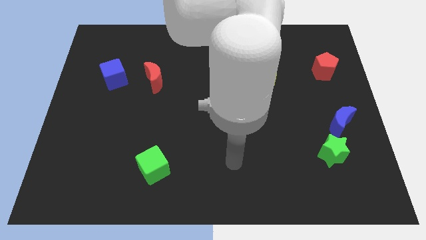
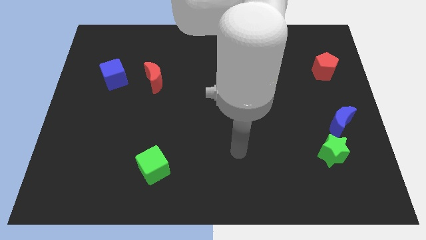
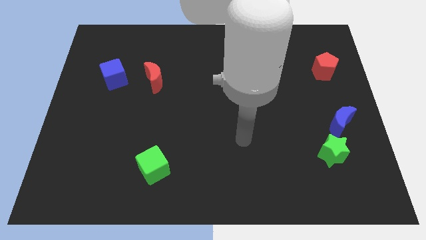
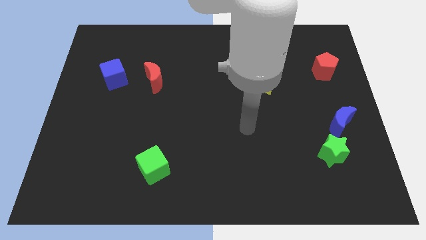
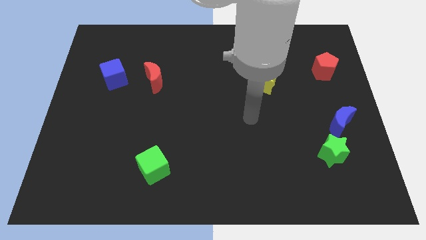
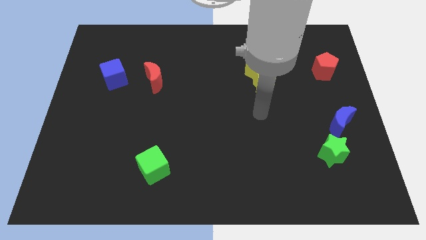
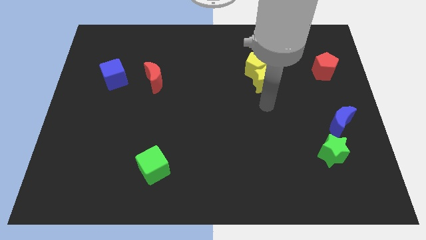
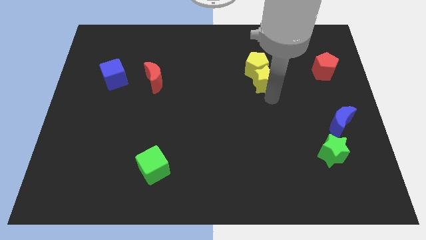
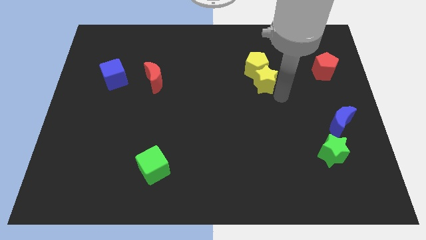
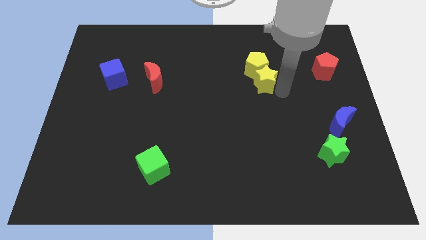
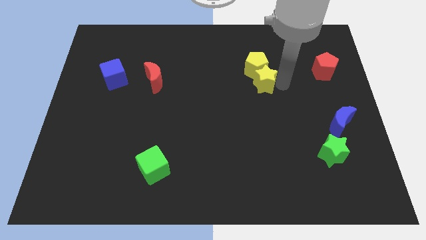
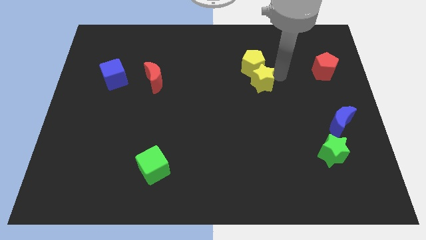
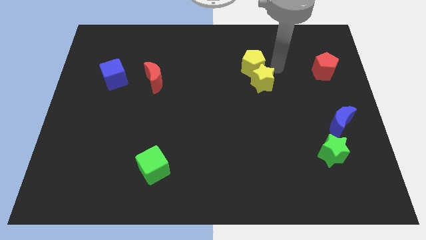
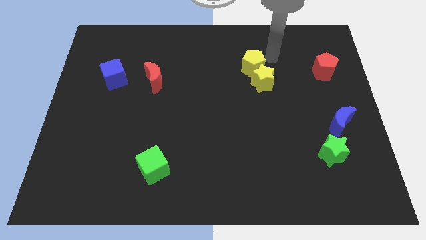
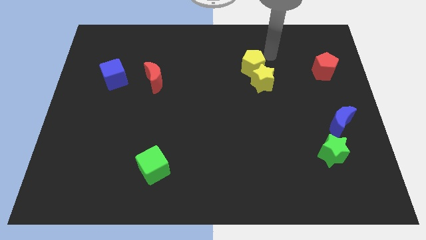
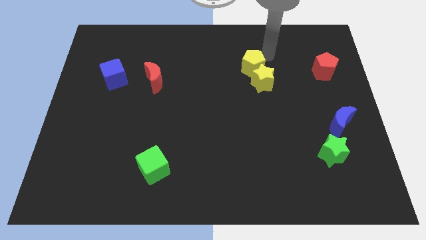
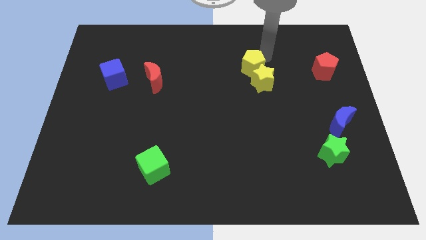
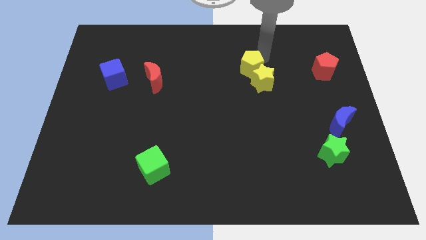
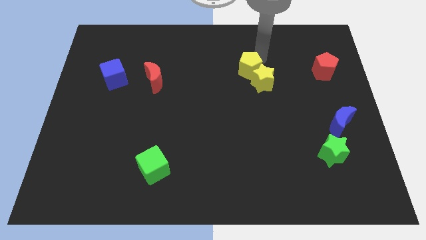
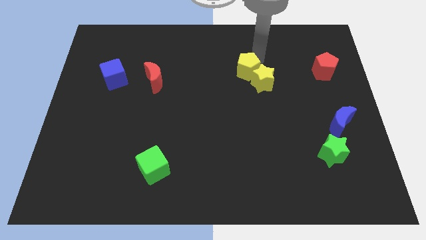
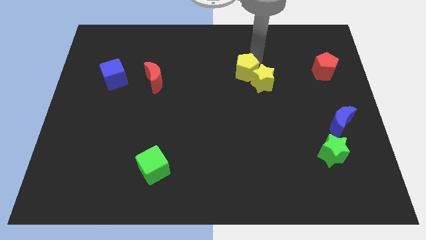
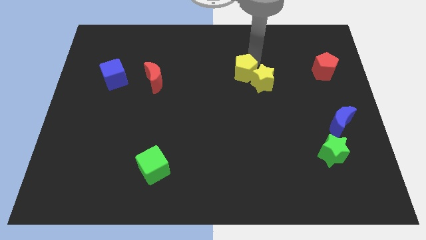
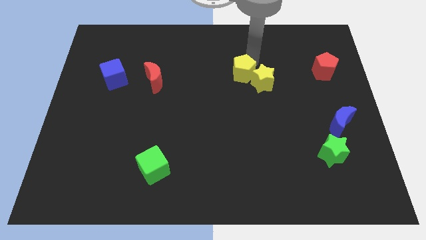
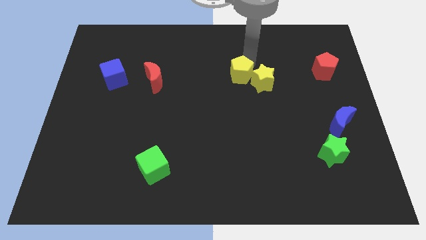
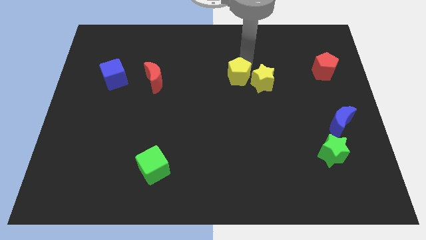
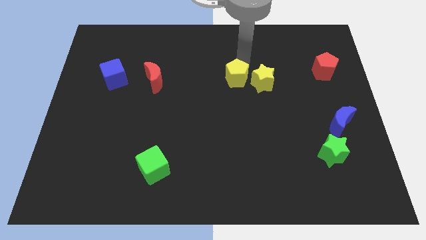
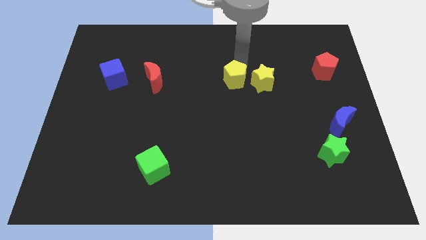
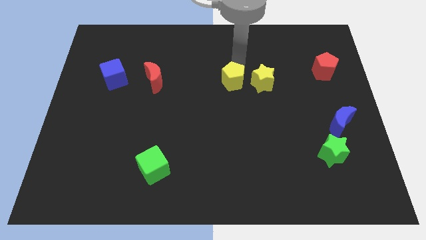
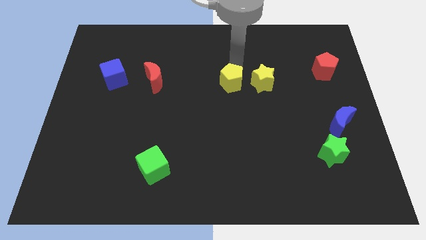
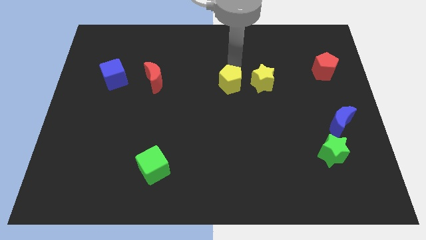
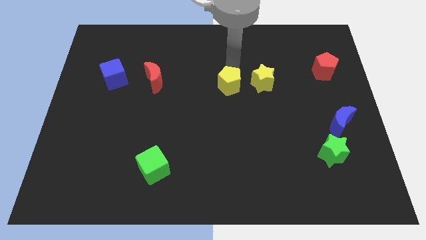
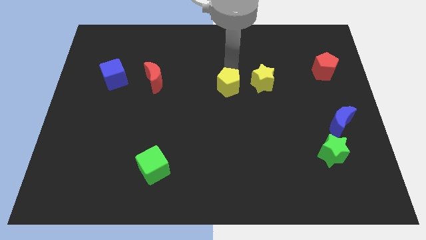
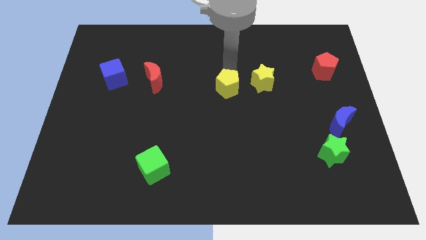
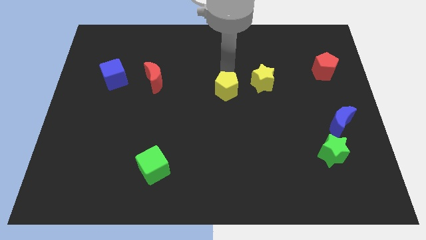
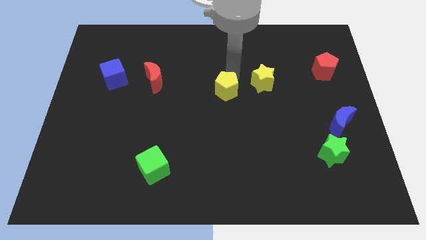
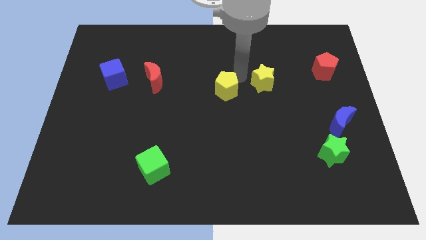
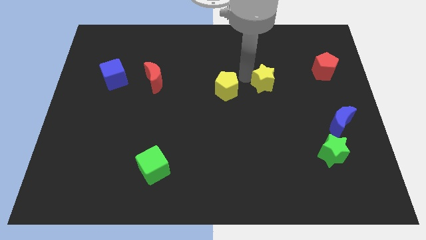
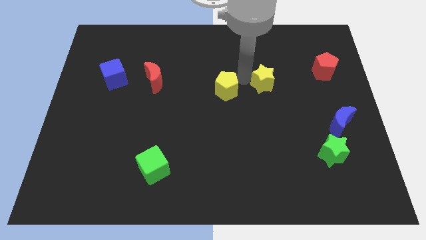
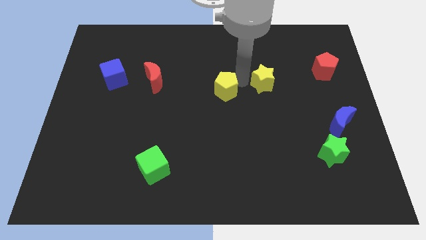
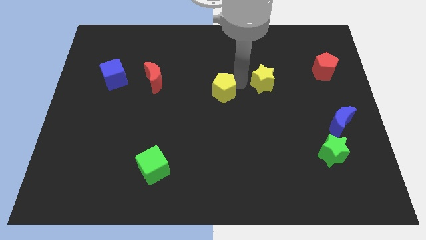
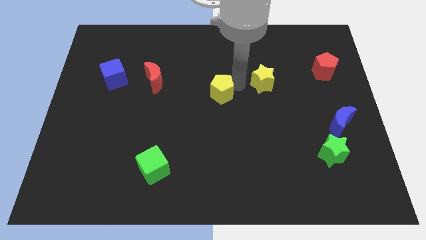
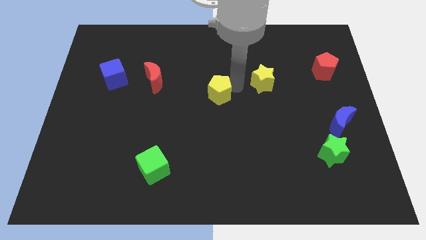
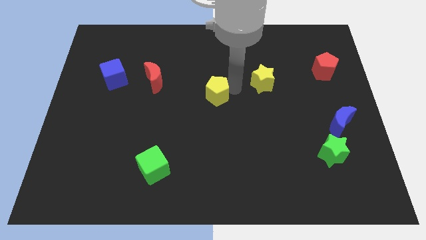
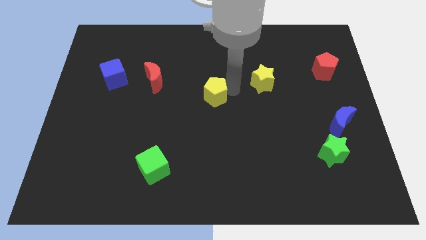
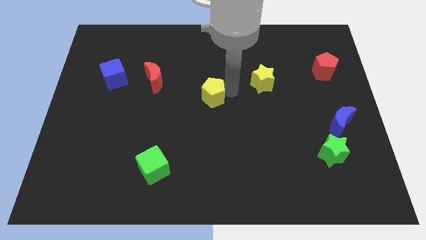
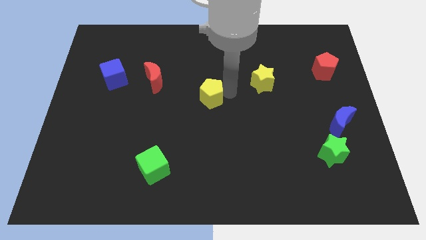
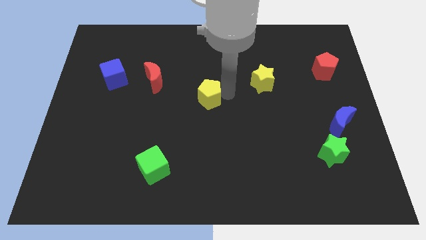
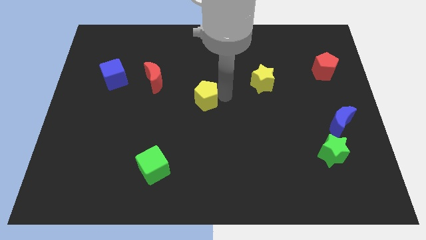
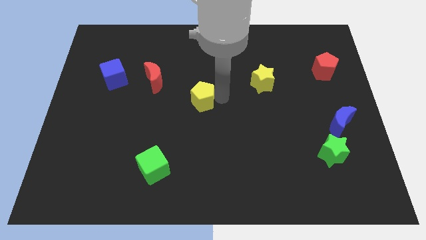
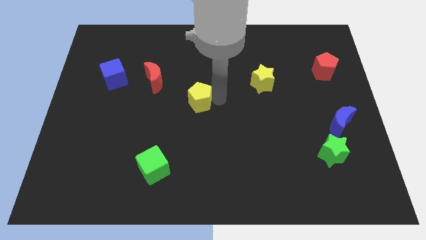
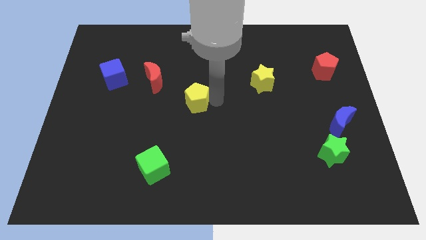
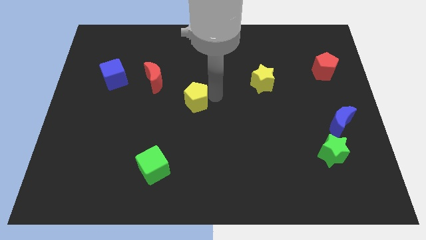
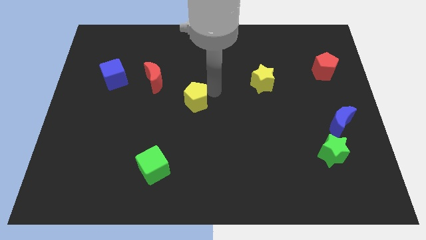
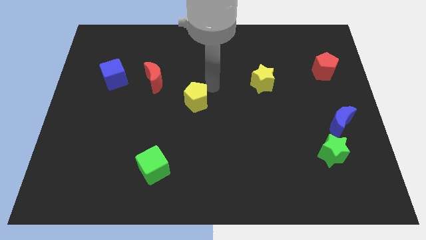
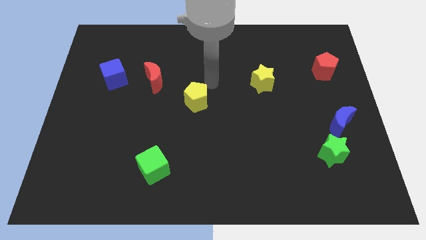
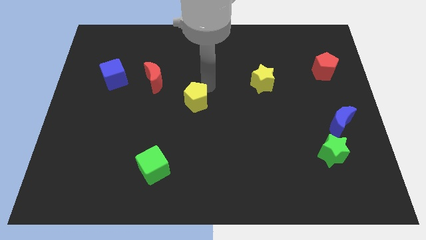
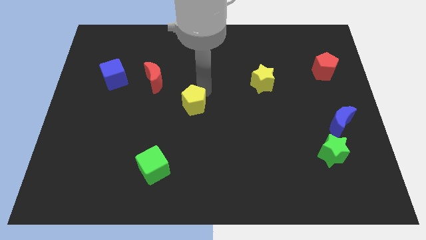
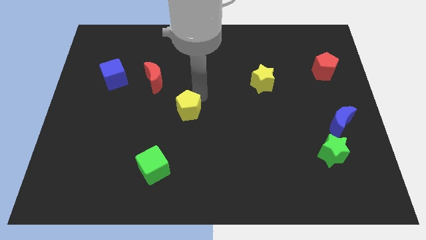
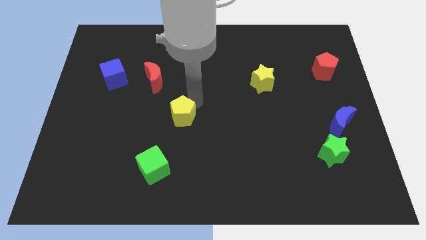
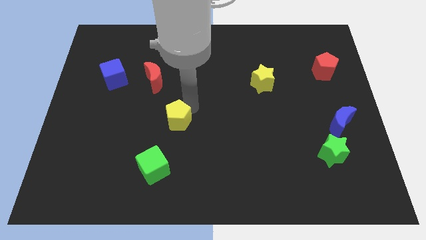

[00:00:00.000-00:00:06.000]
slide the yellow pentagon to the top side of the green cube
